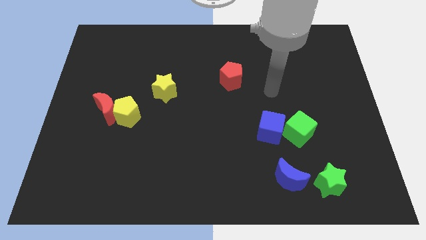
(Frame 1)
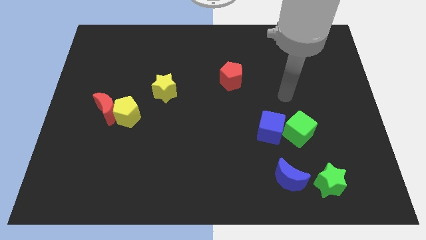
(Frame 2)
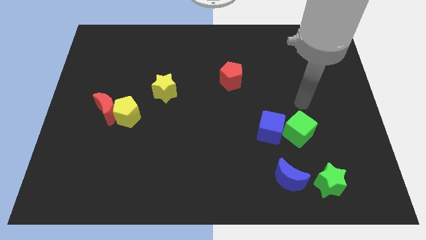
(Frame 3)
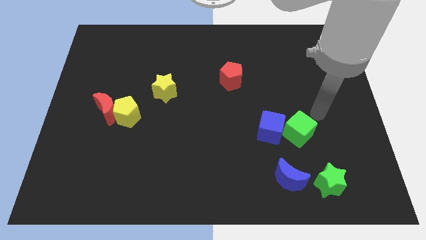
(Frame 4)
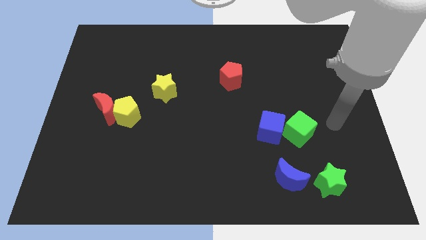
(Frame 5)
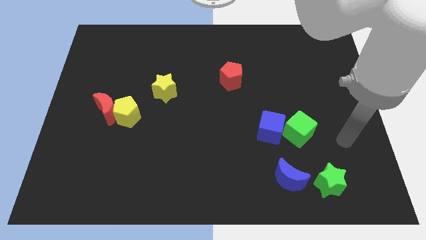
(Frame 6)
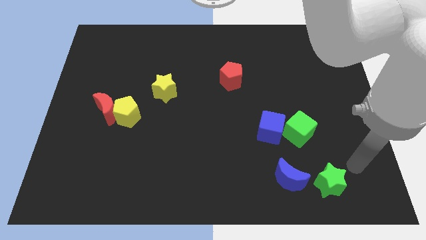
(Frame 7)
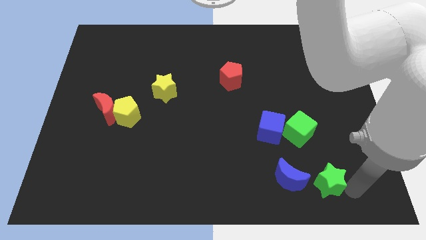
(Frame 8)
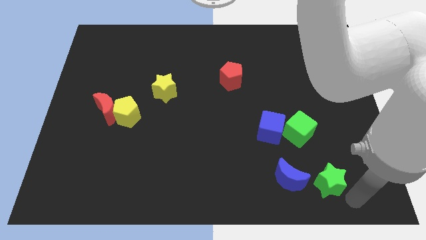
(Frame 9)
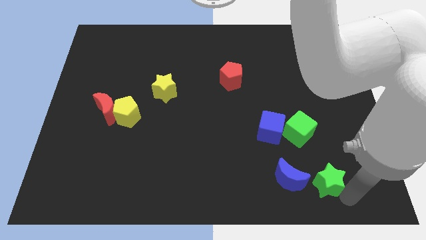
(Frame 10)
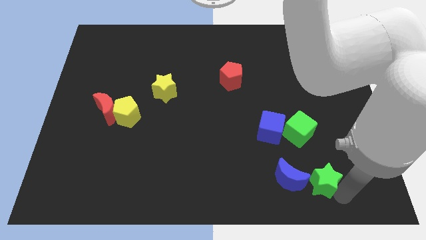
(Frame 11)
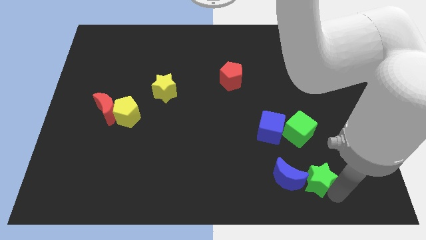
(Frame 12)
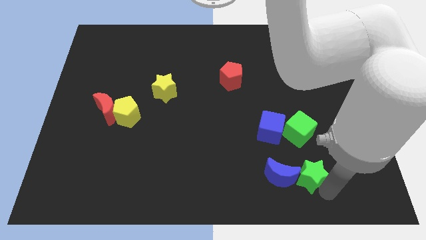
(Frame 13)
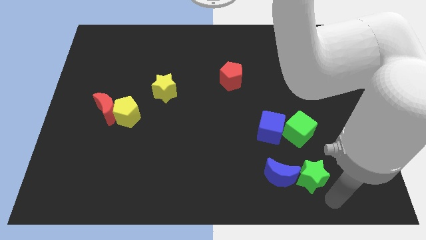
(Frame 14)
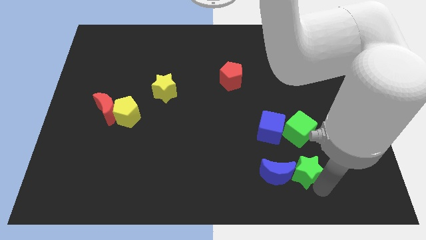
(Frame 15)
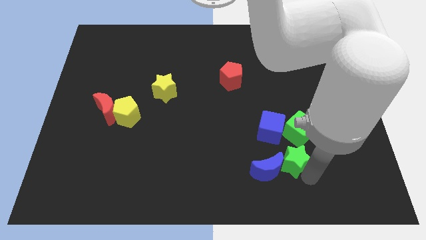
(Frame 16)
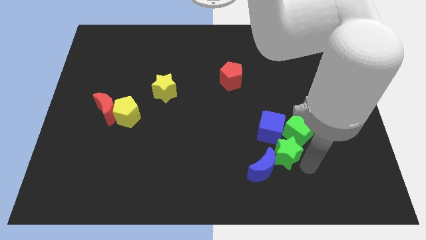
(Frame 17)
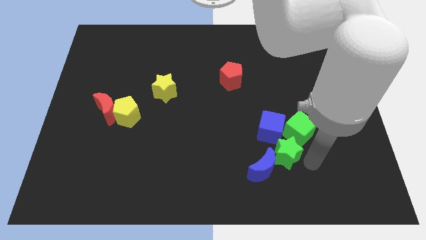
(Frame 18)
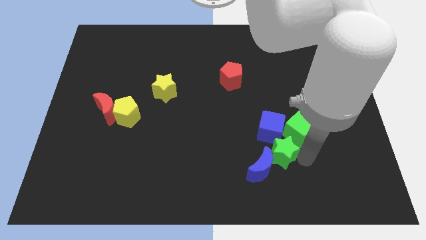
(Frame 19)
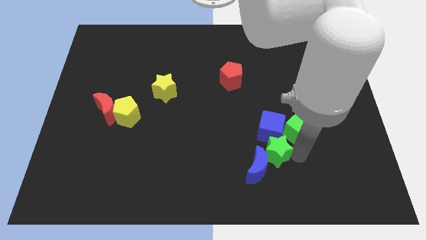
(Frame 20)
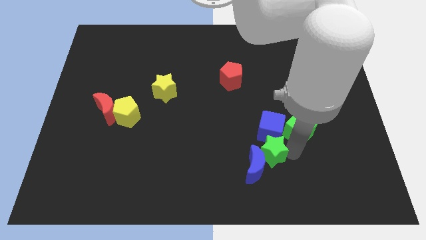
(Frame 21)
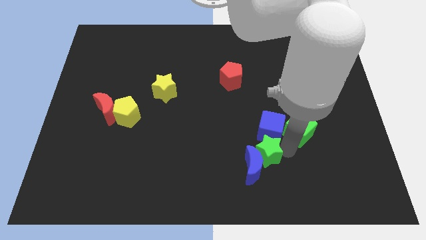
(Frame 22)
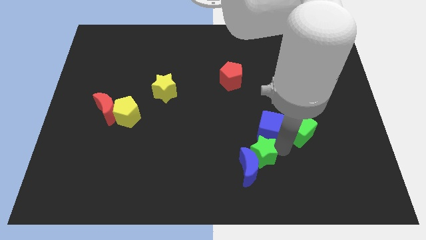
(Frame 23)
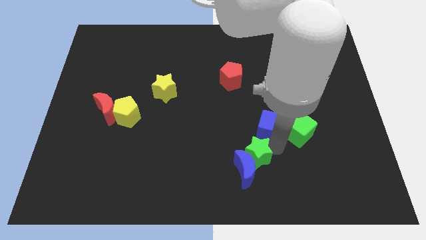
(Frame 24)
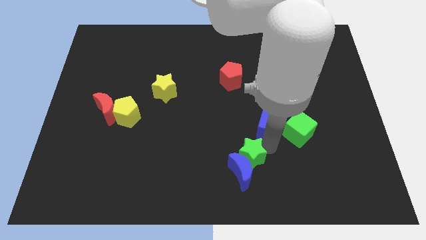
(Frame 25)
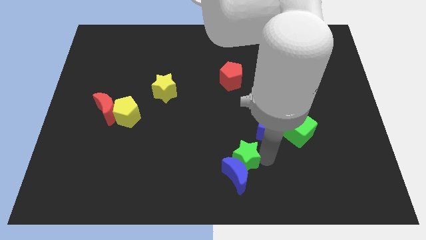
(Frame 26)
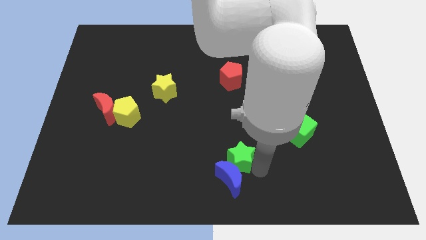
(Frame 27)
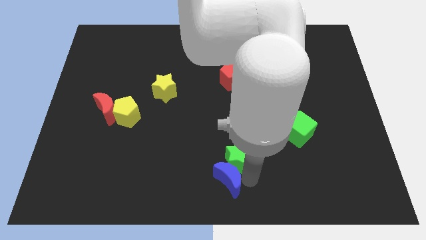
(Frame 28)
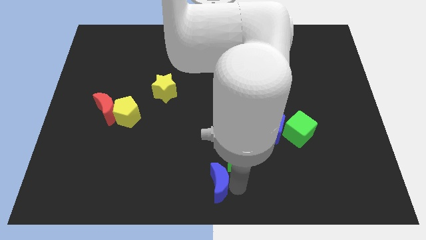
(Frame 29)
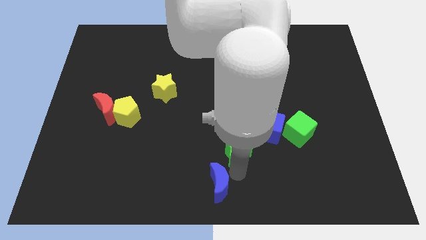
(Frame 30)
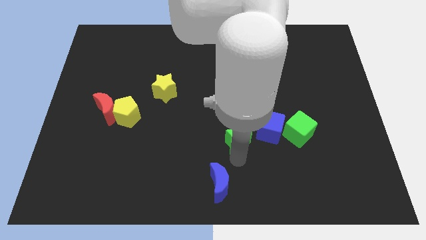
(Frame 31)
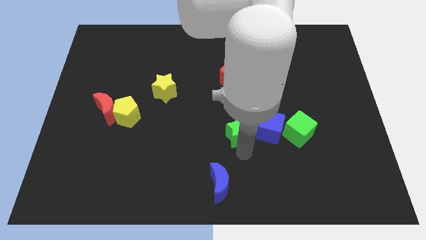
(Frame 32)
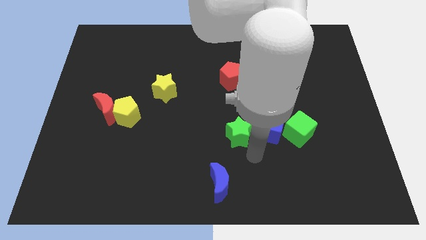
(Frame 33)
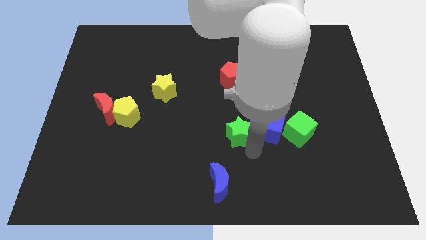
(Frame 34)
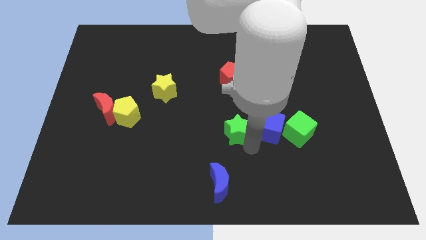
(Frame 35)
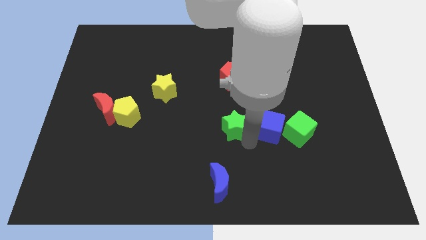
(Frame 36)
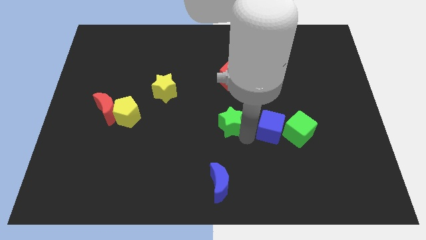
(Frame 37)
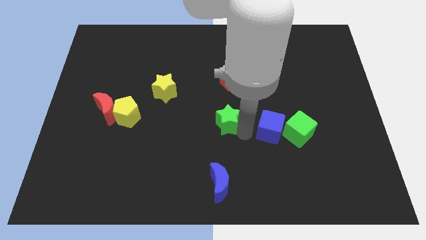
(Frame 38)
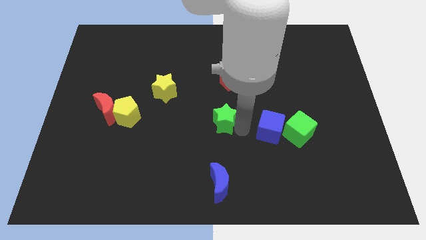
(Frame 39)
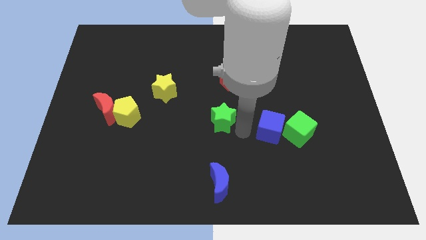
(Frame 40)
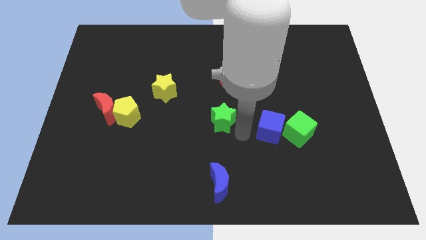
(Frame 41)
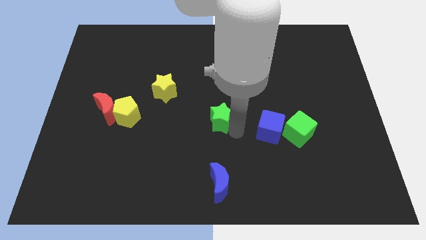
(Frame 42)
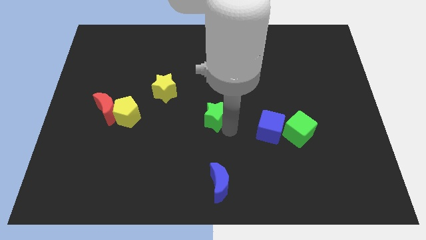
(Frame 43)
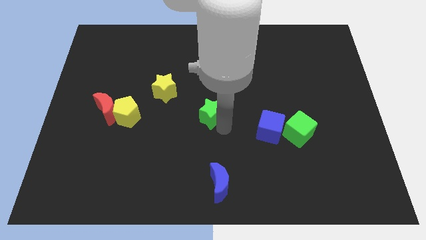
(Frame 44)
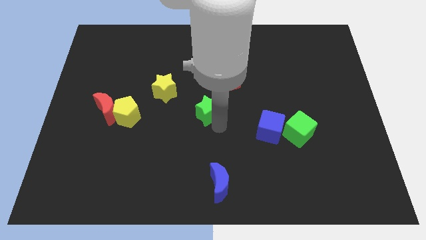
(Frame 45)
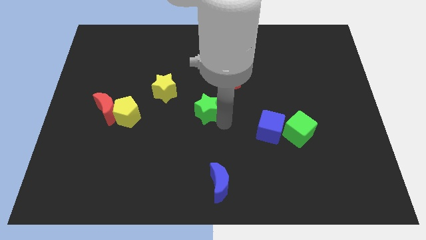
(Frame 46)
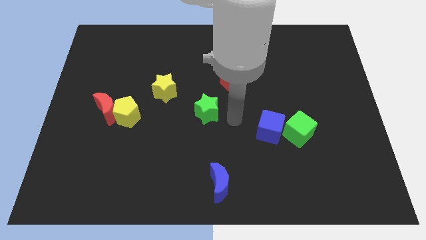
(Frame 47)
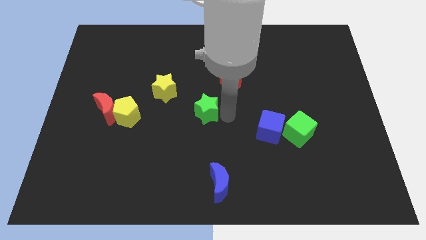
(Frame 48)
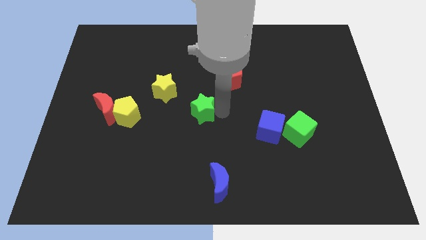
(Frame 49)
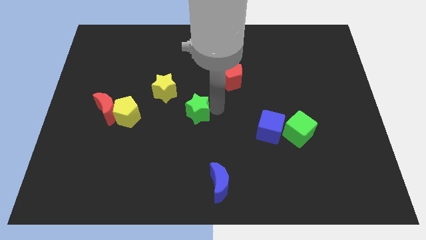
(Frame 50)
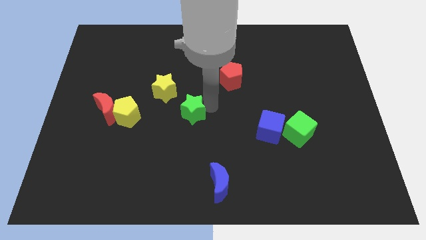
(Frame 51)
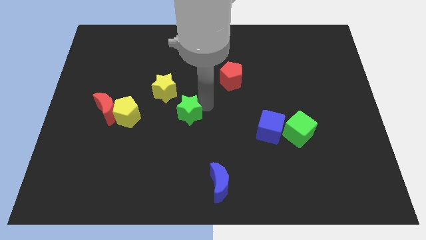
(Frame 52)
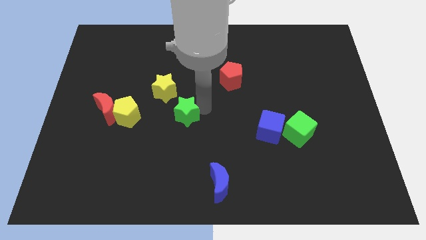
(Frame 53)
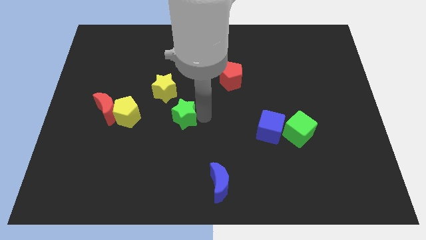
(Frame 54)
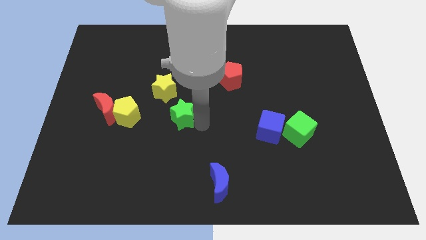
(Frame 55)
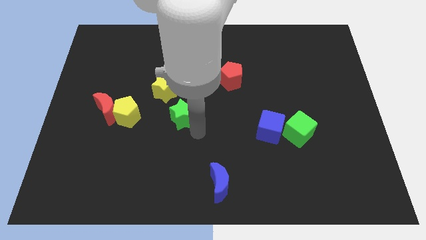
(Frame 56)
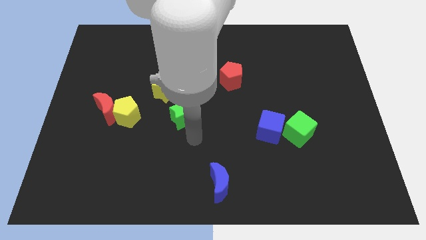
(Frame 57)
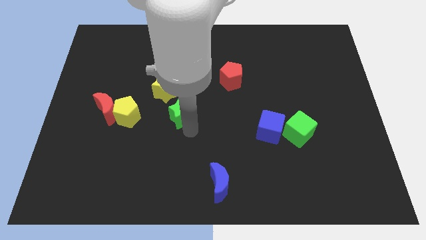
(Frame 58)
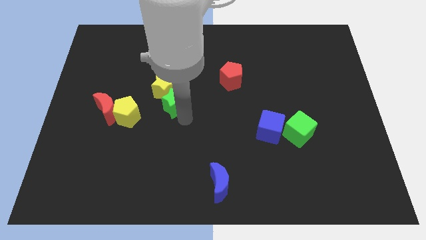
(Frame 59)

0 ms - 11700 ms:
put the green star close to the yellow star

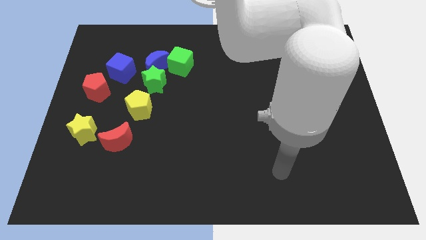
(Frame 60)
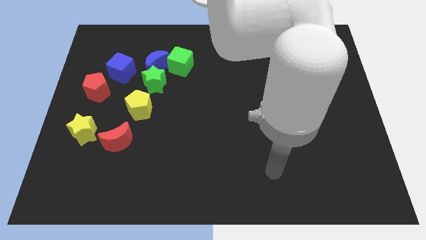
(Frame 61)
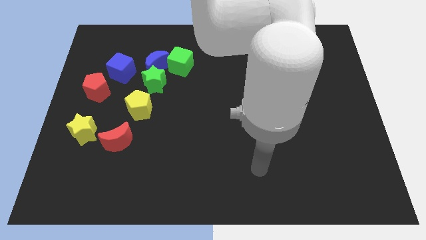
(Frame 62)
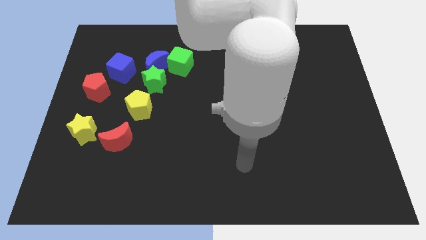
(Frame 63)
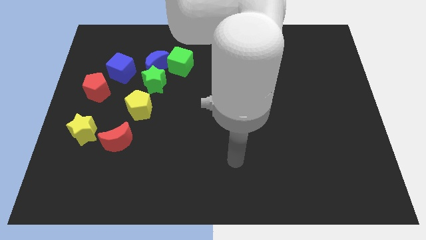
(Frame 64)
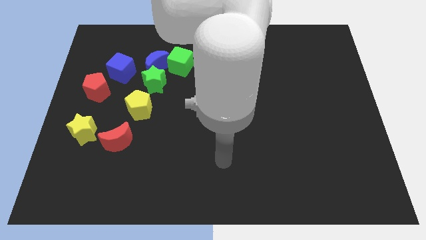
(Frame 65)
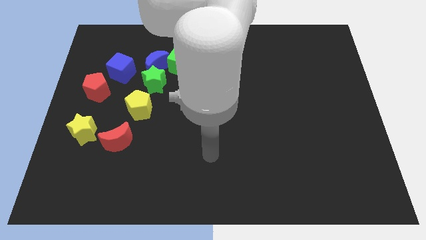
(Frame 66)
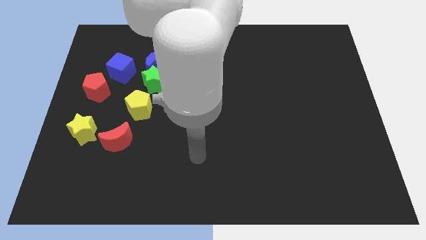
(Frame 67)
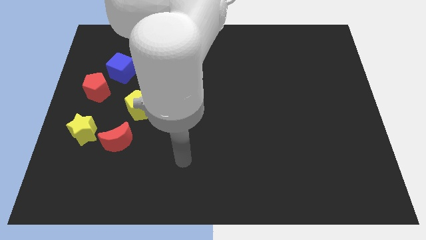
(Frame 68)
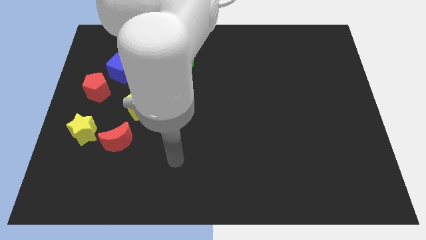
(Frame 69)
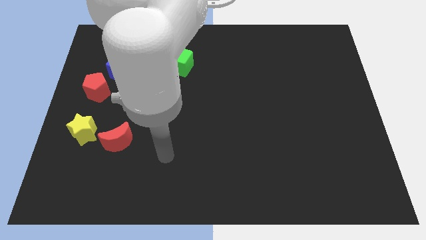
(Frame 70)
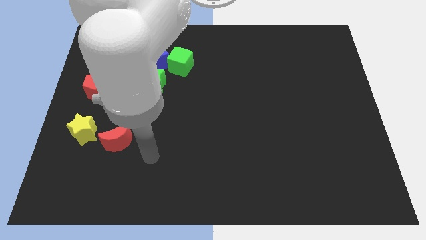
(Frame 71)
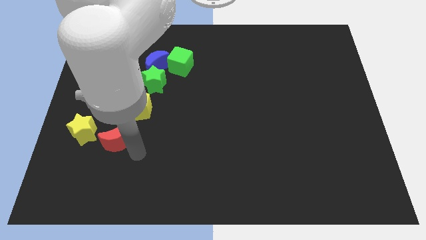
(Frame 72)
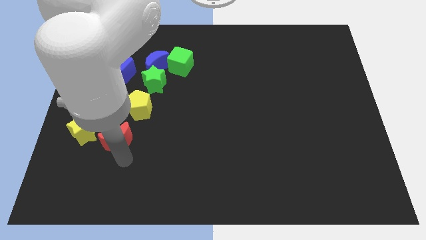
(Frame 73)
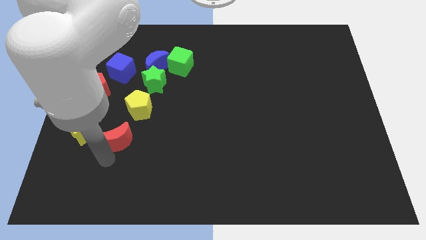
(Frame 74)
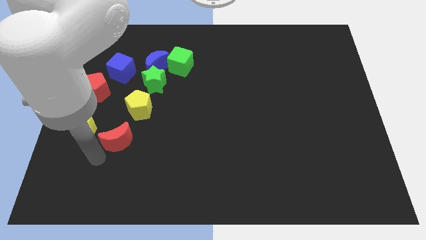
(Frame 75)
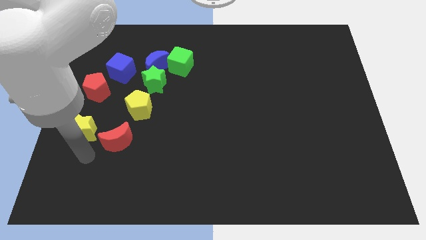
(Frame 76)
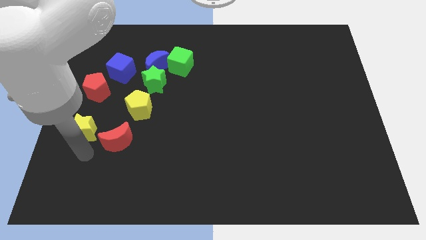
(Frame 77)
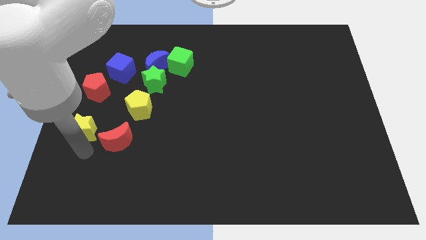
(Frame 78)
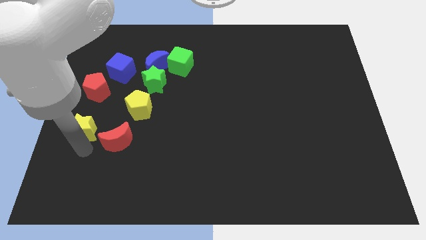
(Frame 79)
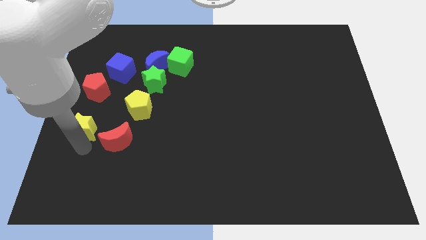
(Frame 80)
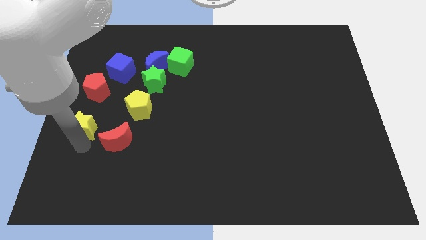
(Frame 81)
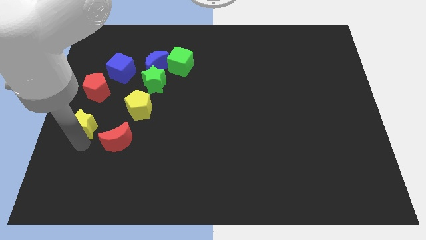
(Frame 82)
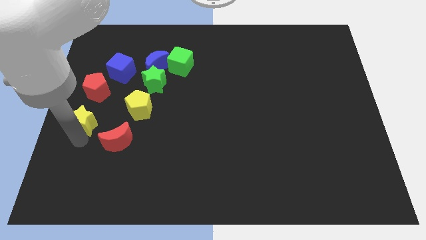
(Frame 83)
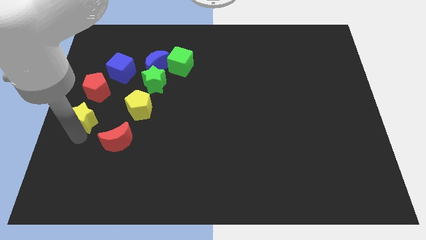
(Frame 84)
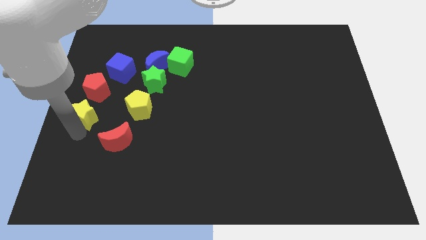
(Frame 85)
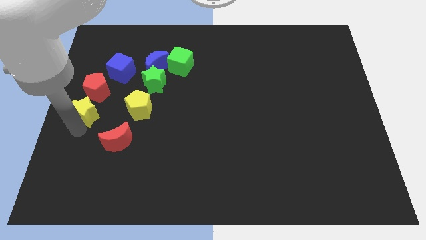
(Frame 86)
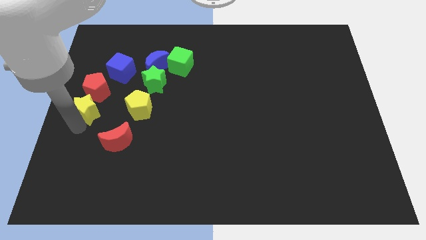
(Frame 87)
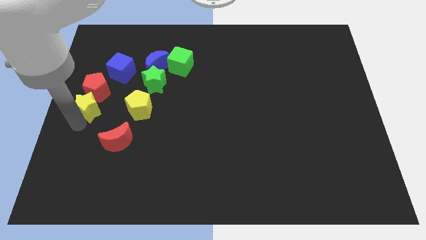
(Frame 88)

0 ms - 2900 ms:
move the yellow star towards the red pentagon
